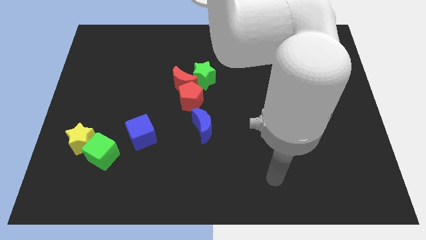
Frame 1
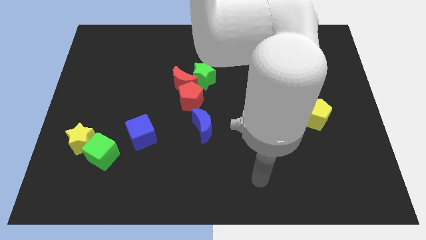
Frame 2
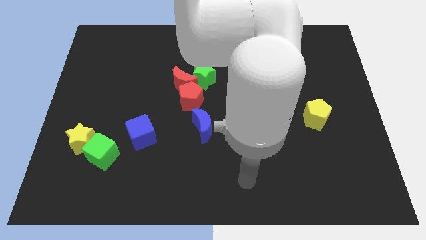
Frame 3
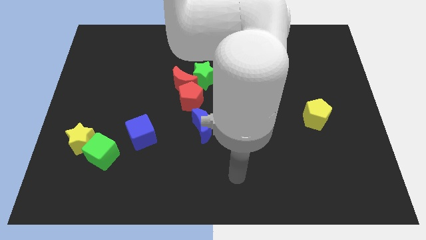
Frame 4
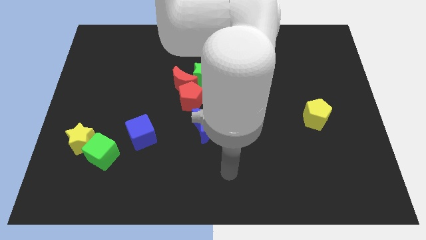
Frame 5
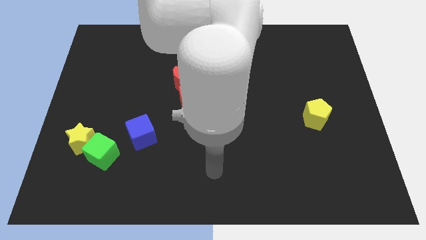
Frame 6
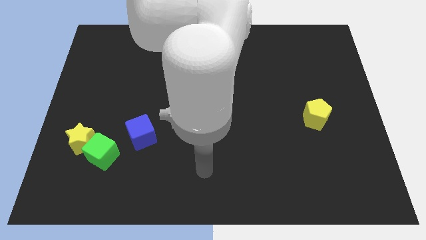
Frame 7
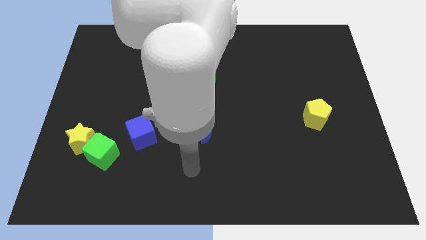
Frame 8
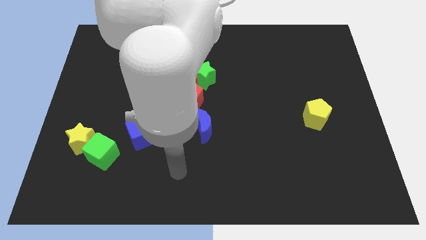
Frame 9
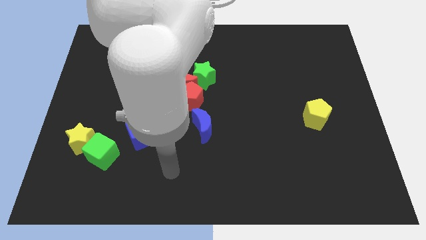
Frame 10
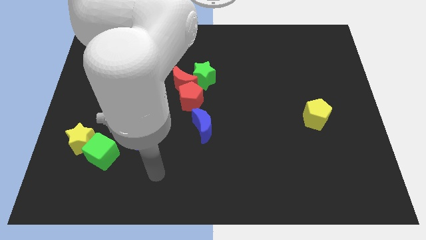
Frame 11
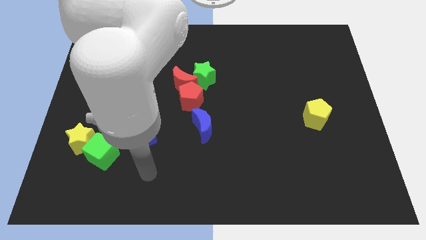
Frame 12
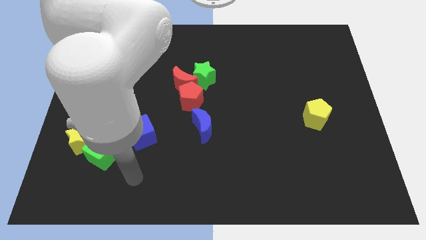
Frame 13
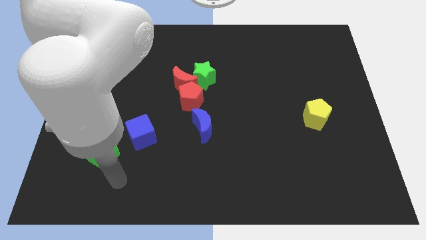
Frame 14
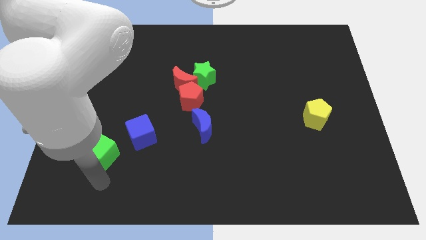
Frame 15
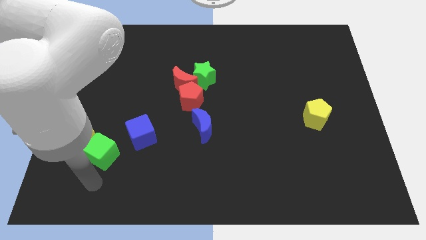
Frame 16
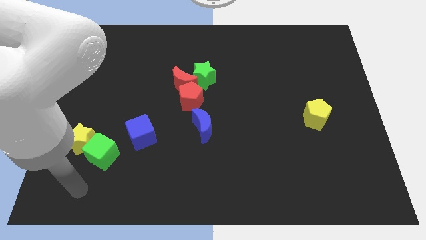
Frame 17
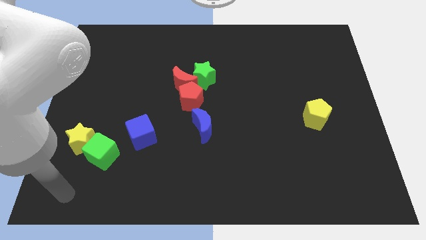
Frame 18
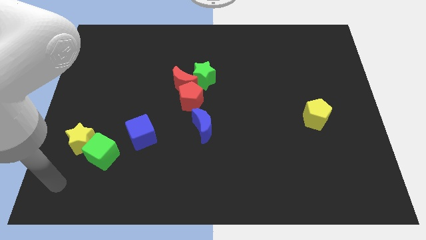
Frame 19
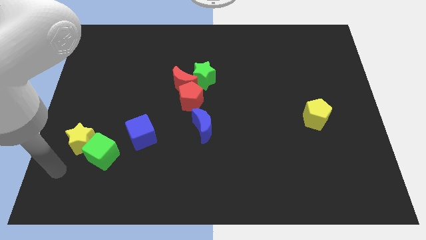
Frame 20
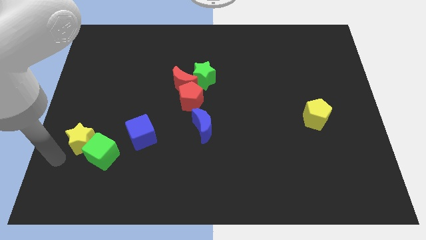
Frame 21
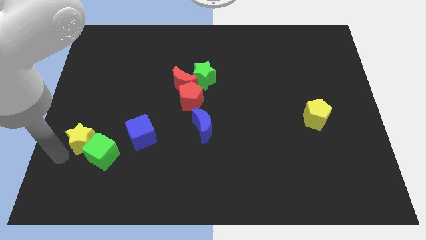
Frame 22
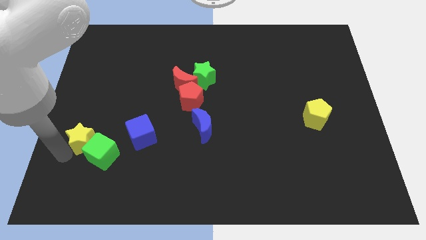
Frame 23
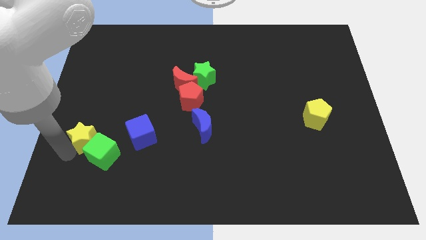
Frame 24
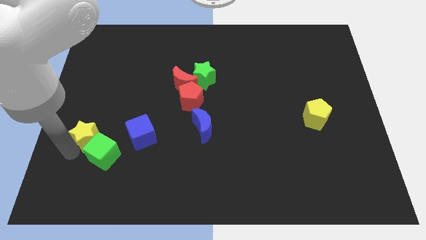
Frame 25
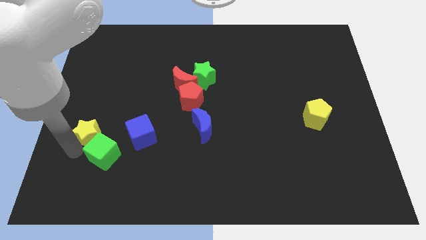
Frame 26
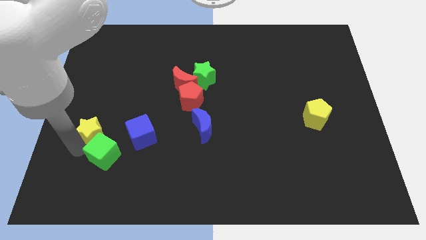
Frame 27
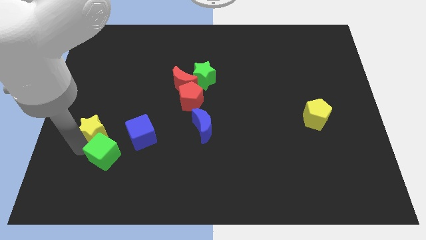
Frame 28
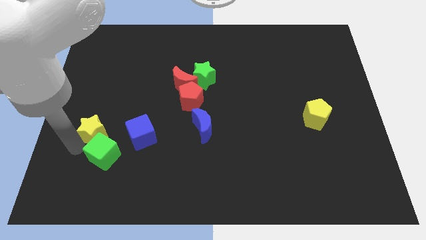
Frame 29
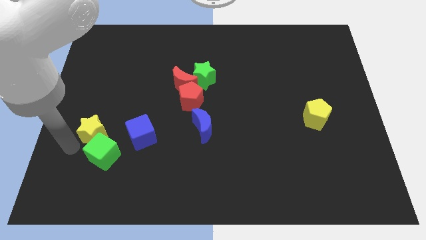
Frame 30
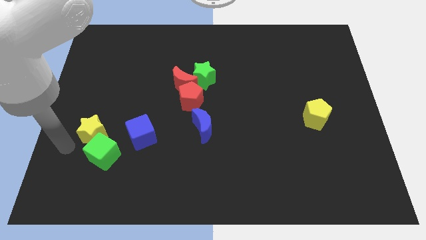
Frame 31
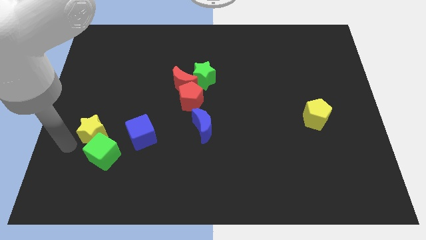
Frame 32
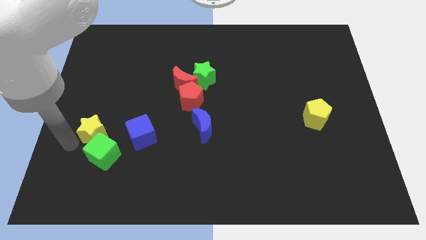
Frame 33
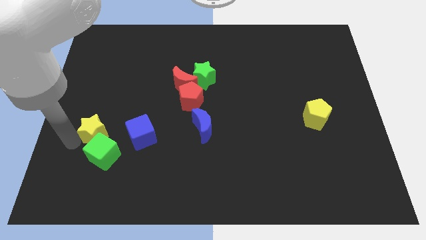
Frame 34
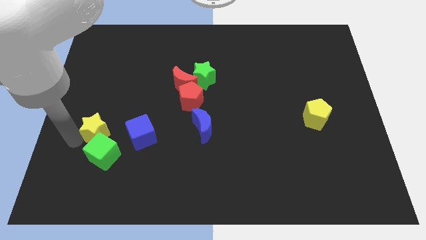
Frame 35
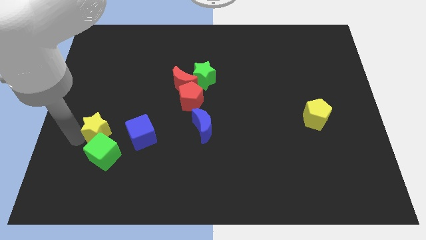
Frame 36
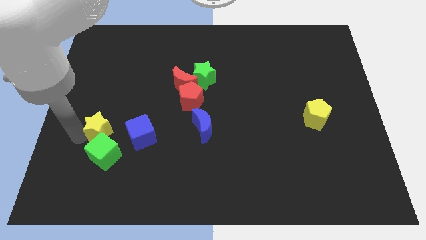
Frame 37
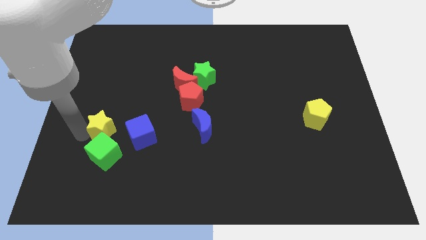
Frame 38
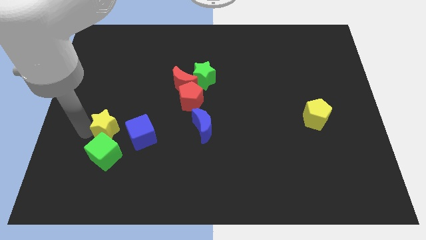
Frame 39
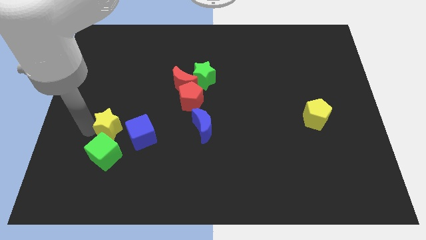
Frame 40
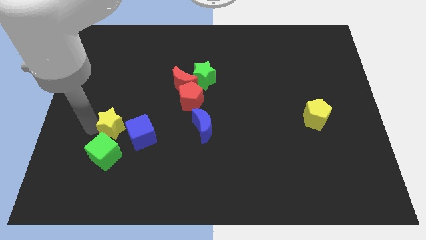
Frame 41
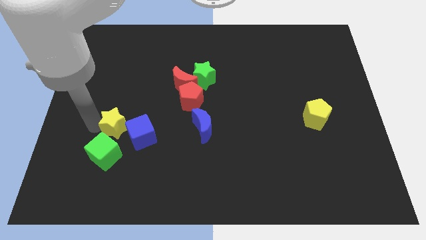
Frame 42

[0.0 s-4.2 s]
push the yellow star up and to the right diagonally a little

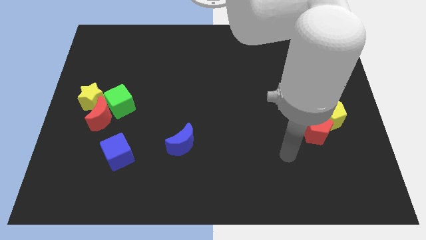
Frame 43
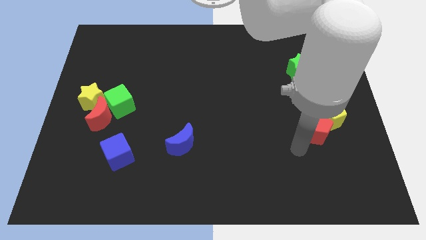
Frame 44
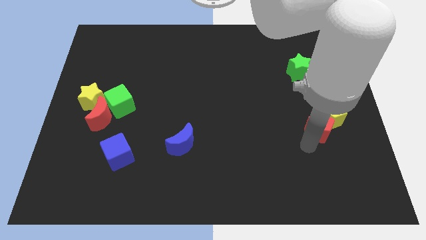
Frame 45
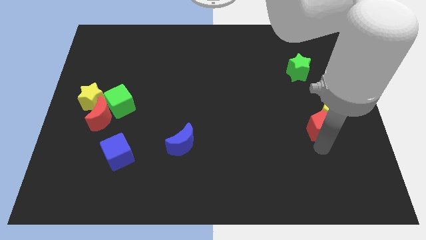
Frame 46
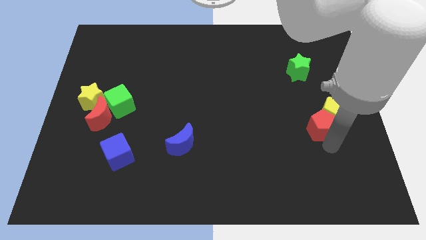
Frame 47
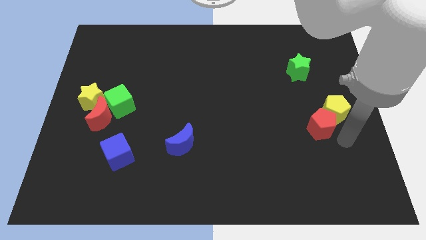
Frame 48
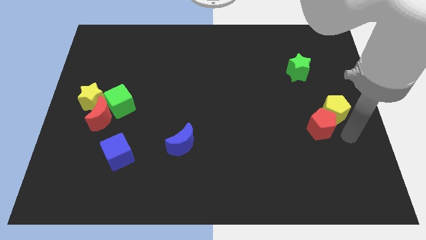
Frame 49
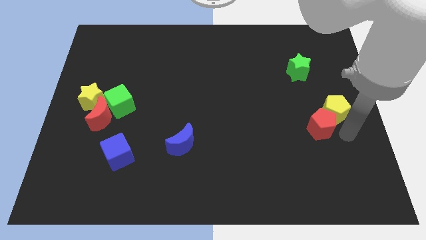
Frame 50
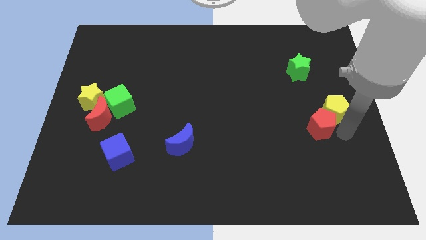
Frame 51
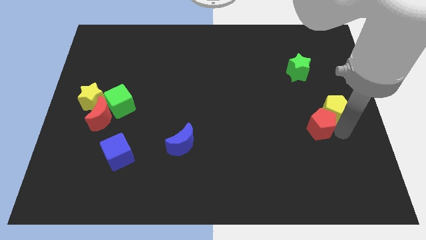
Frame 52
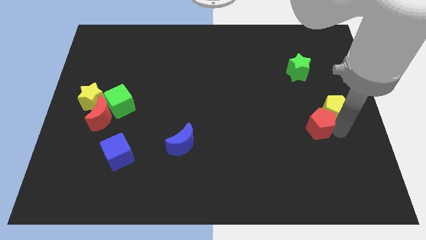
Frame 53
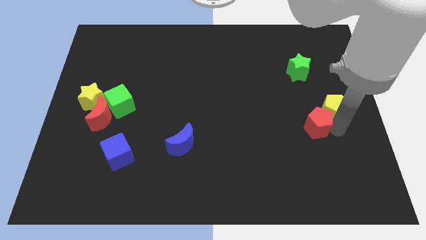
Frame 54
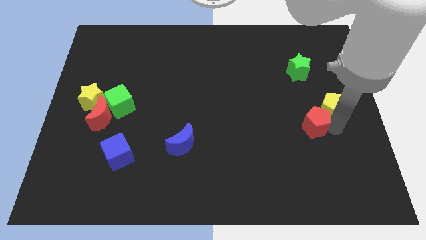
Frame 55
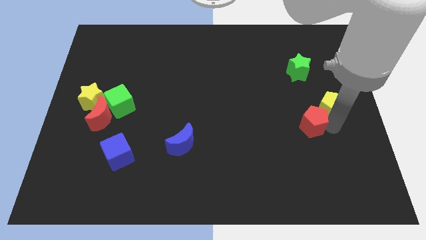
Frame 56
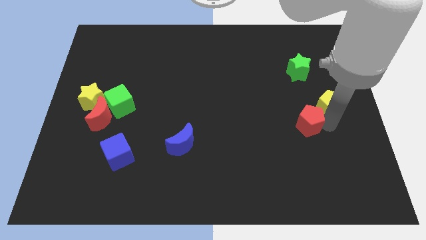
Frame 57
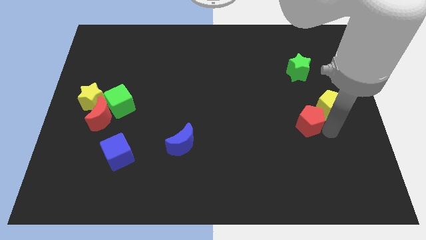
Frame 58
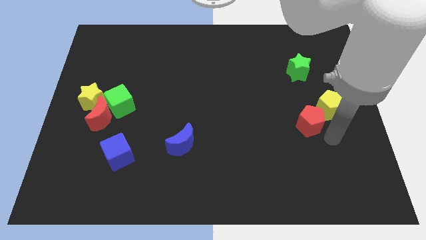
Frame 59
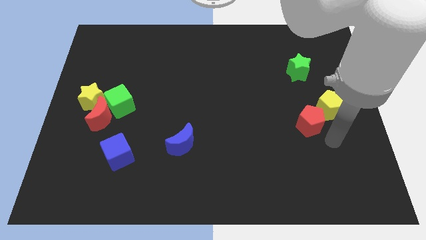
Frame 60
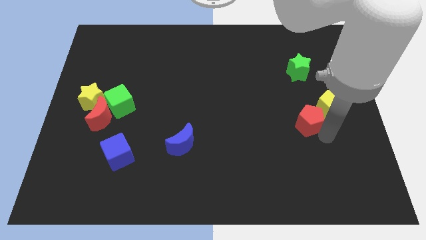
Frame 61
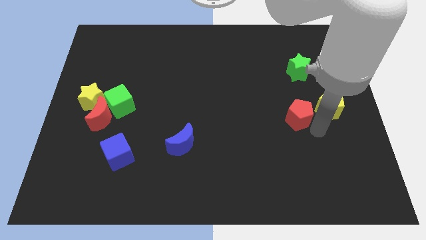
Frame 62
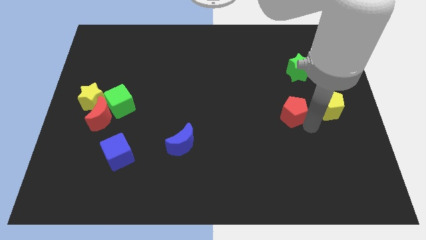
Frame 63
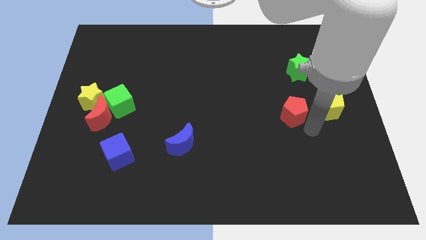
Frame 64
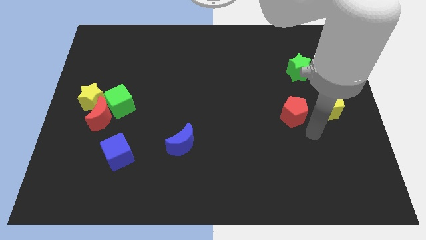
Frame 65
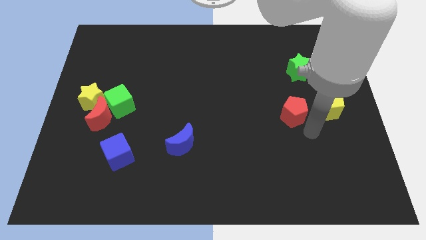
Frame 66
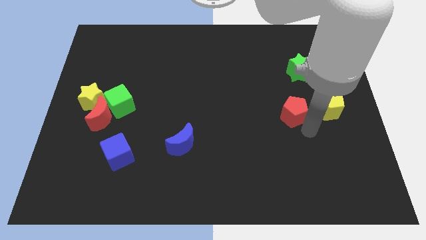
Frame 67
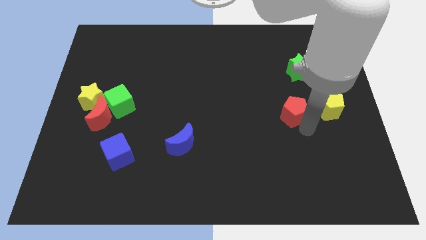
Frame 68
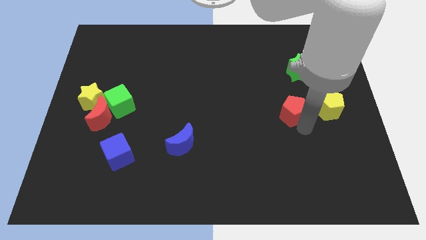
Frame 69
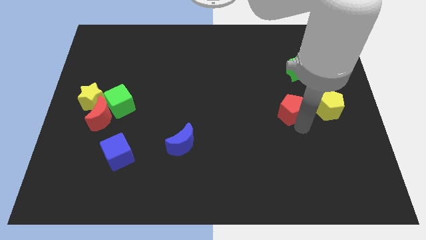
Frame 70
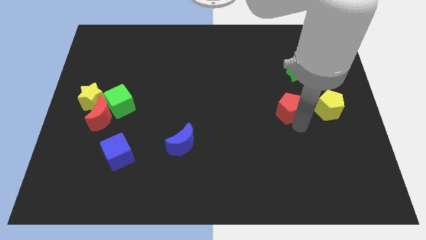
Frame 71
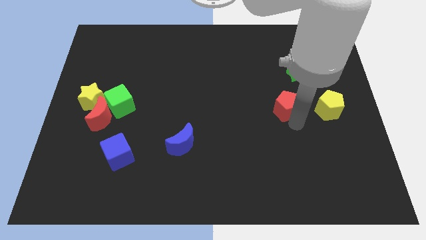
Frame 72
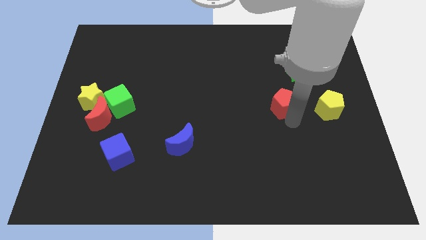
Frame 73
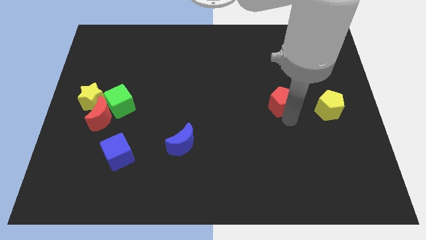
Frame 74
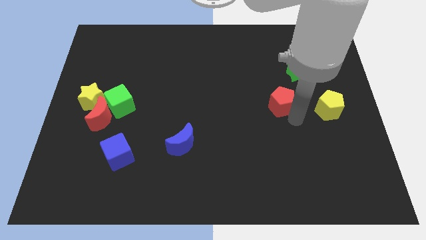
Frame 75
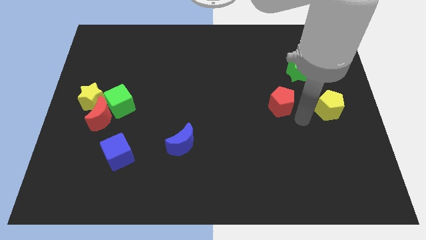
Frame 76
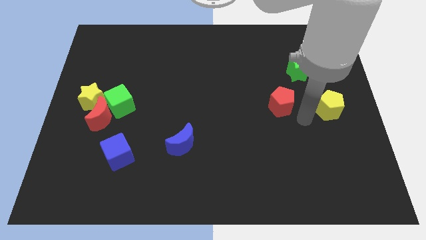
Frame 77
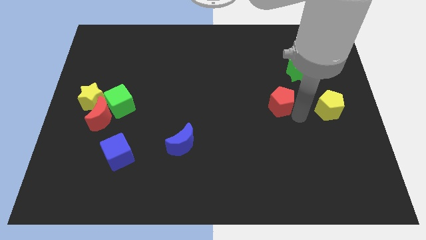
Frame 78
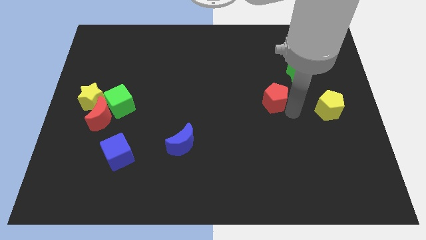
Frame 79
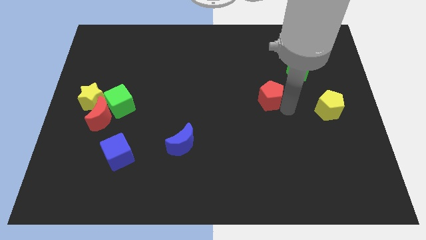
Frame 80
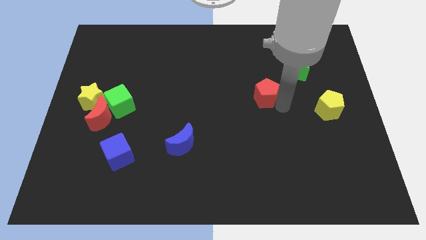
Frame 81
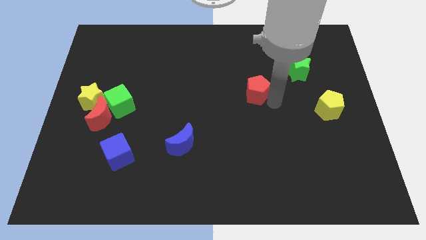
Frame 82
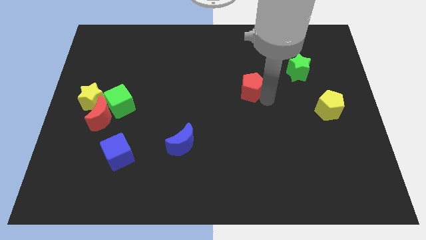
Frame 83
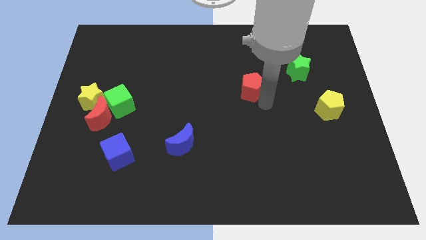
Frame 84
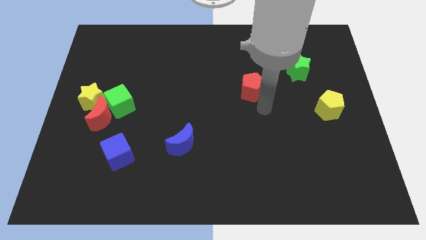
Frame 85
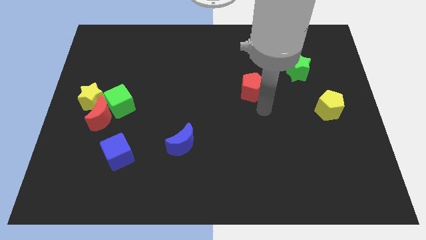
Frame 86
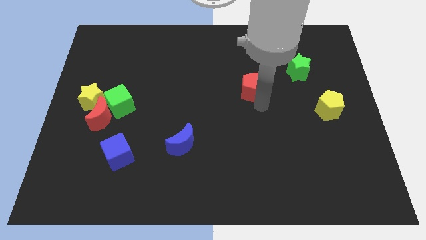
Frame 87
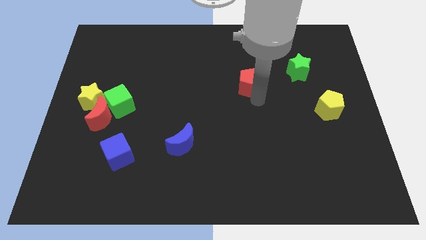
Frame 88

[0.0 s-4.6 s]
move the red pentagon up and left diagonally
